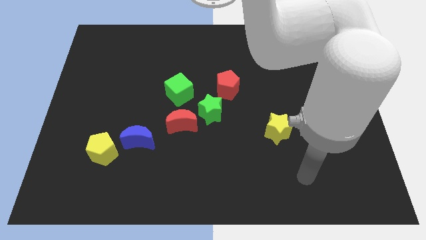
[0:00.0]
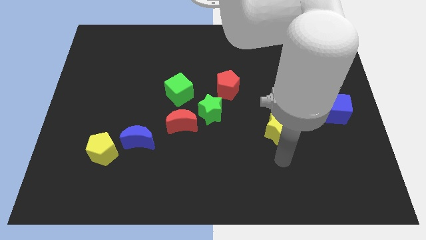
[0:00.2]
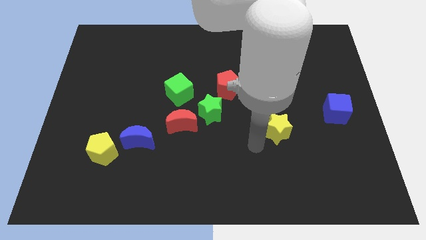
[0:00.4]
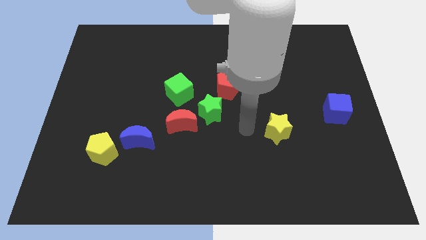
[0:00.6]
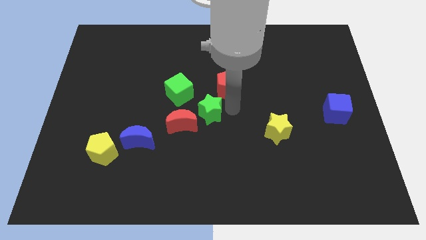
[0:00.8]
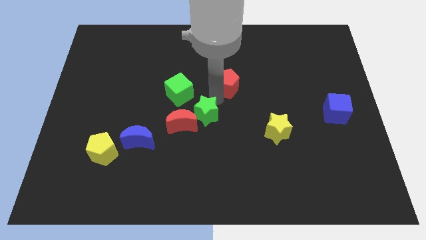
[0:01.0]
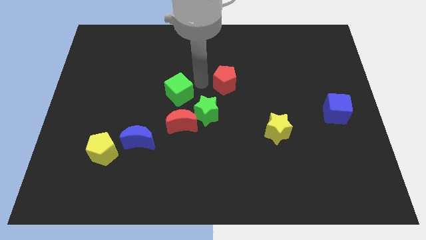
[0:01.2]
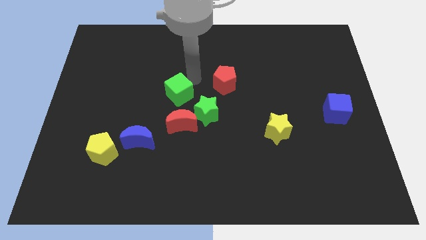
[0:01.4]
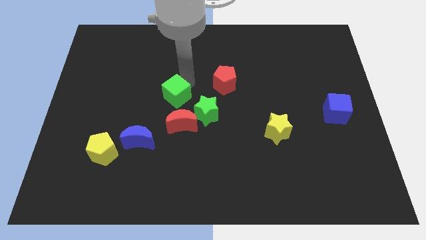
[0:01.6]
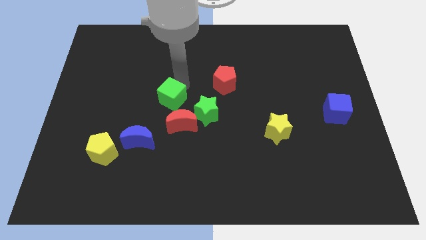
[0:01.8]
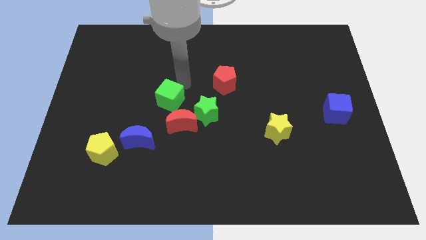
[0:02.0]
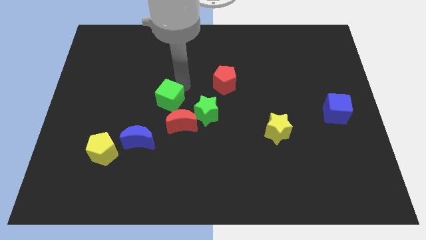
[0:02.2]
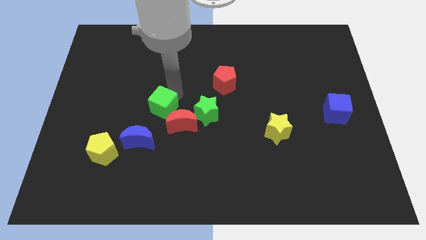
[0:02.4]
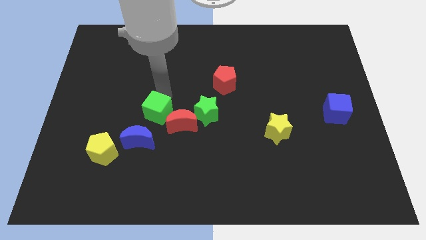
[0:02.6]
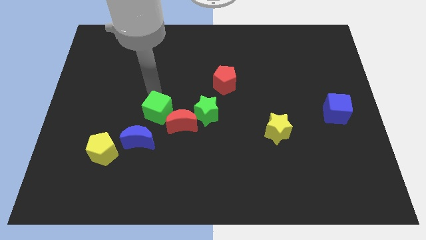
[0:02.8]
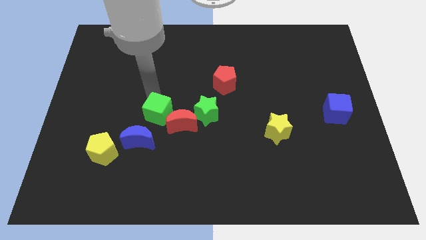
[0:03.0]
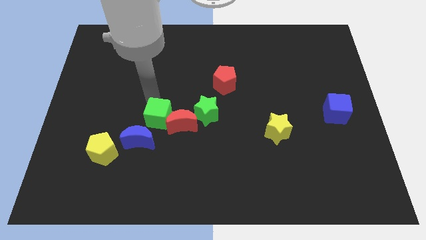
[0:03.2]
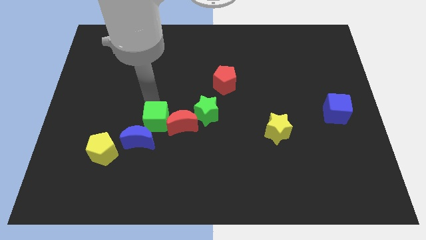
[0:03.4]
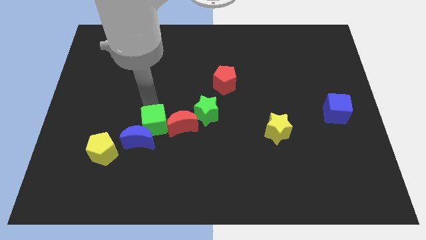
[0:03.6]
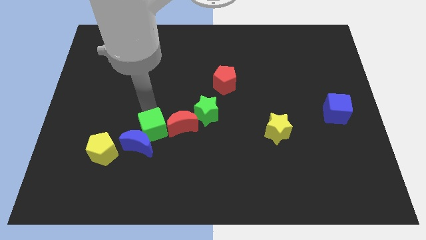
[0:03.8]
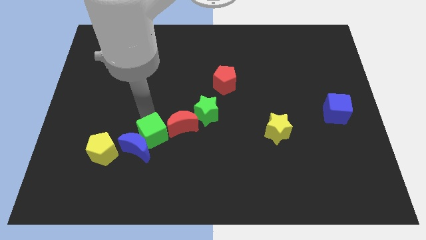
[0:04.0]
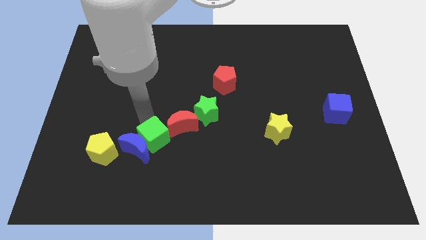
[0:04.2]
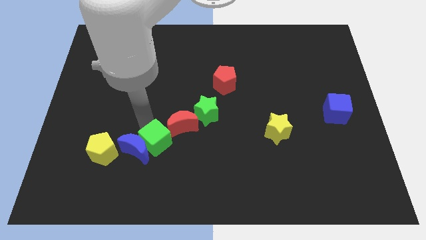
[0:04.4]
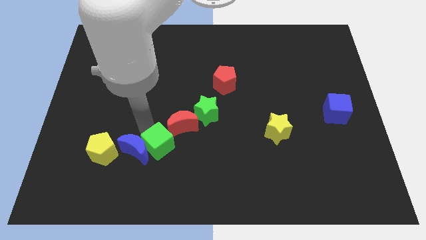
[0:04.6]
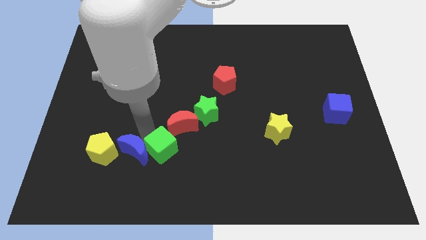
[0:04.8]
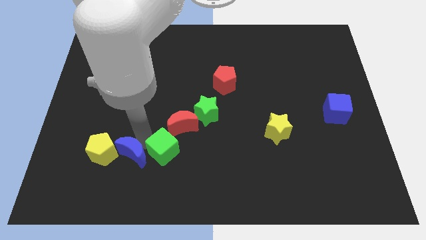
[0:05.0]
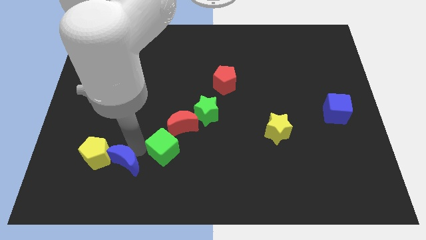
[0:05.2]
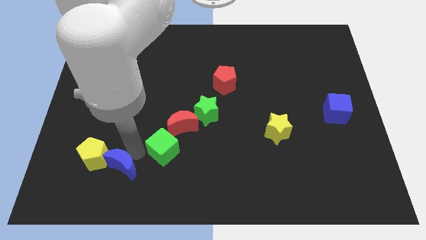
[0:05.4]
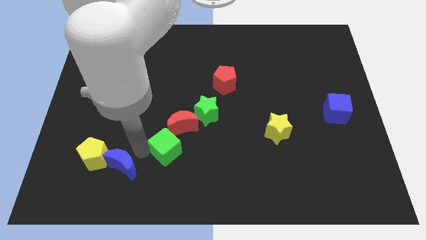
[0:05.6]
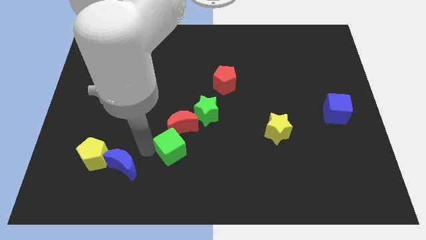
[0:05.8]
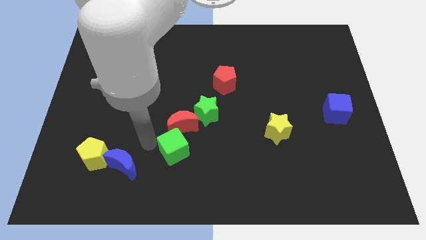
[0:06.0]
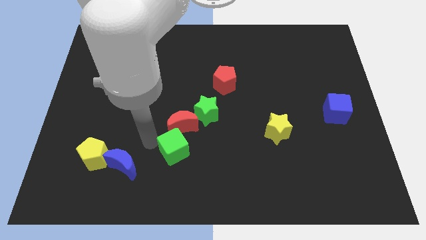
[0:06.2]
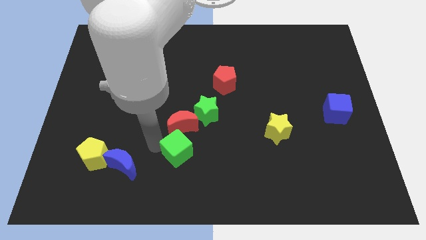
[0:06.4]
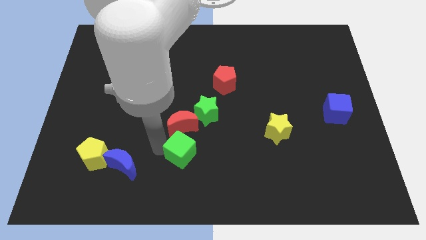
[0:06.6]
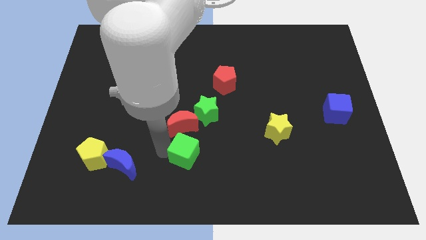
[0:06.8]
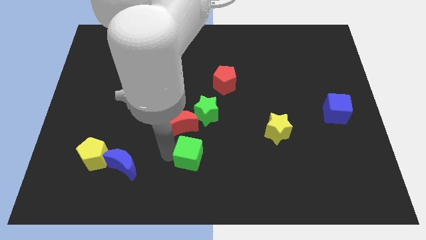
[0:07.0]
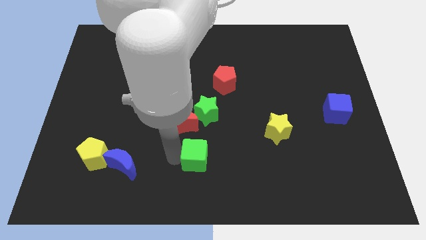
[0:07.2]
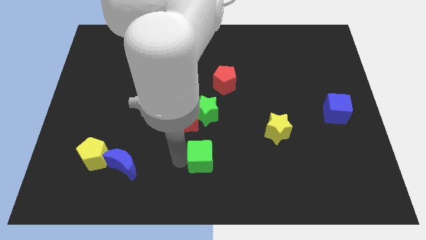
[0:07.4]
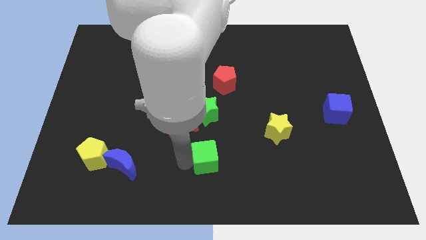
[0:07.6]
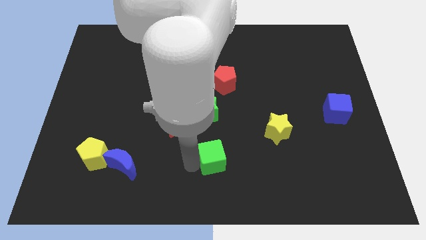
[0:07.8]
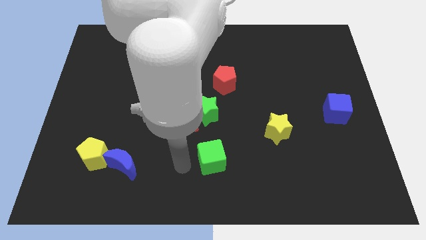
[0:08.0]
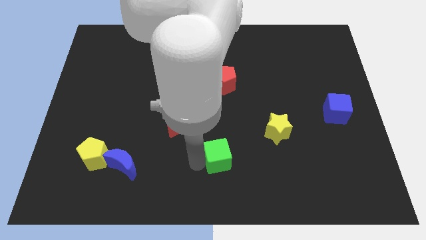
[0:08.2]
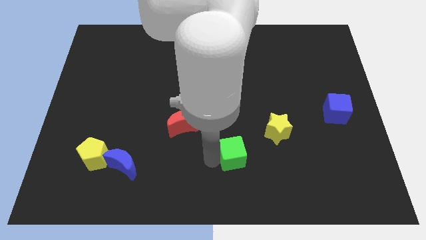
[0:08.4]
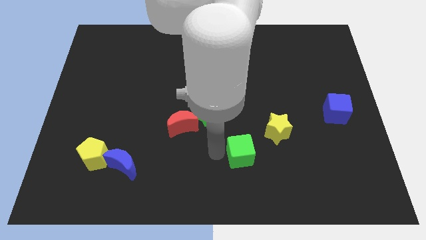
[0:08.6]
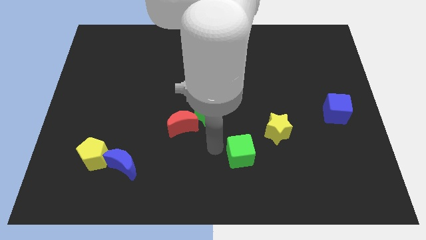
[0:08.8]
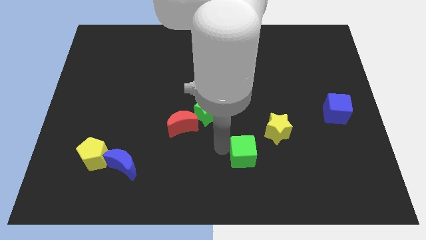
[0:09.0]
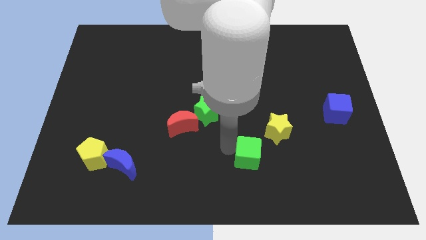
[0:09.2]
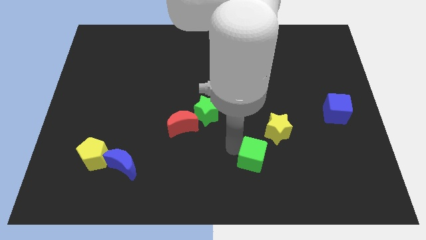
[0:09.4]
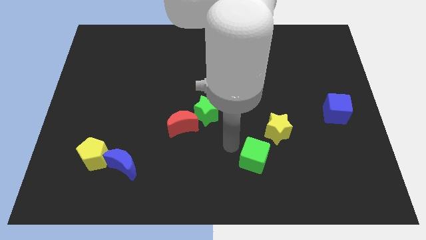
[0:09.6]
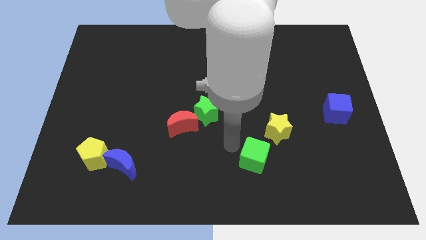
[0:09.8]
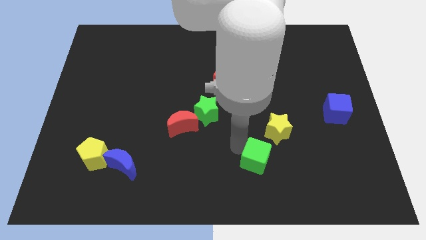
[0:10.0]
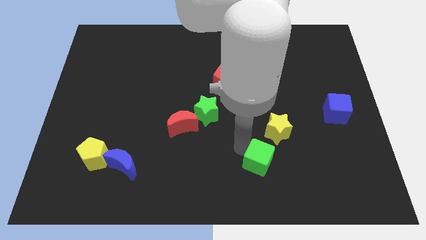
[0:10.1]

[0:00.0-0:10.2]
slide the green cube to the bottom side of the yellow star

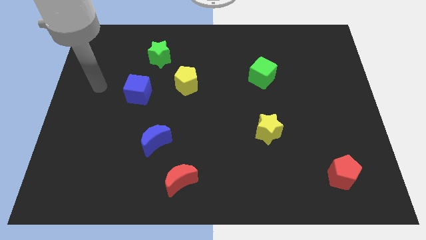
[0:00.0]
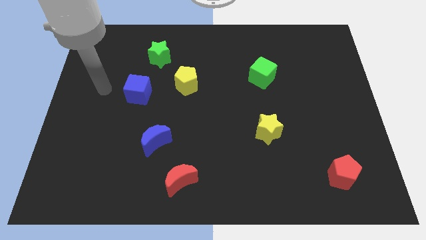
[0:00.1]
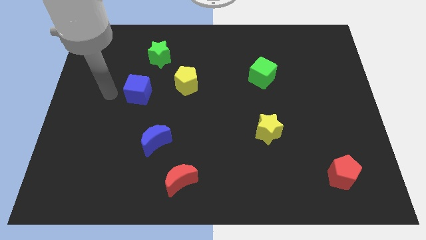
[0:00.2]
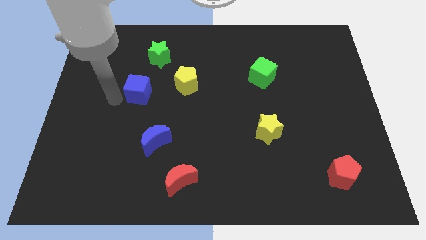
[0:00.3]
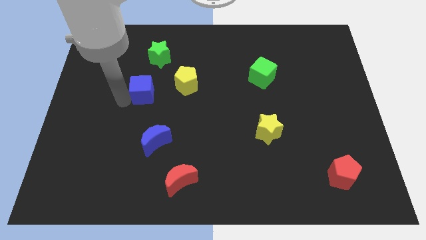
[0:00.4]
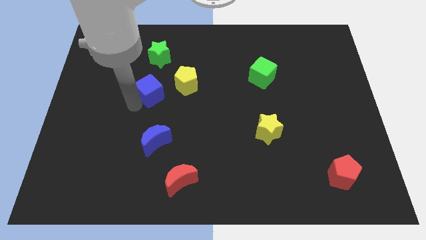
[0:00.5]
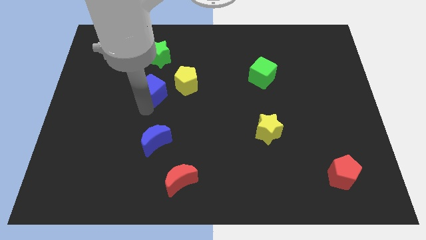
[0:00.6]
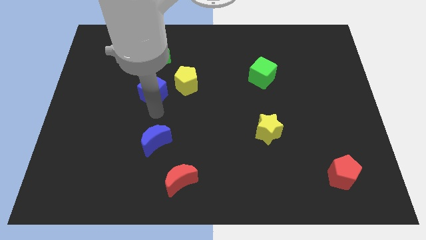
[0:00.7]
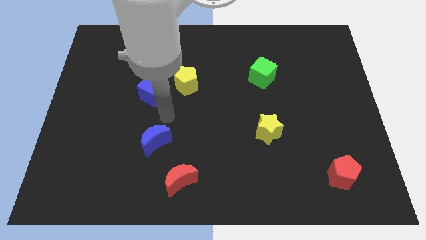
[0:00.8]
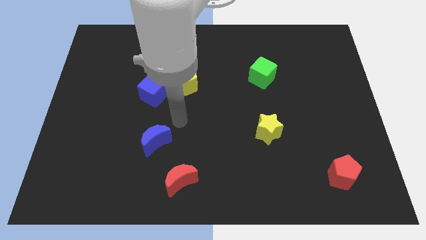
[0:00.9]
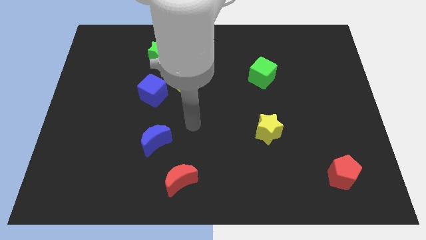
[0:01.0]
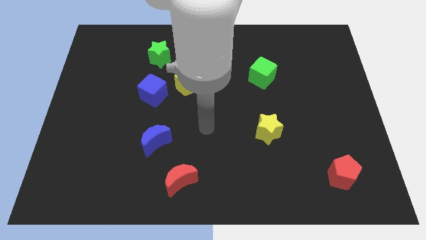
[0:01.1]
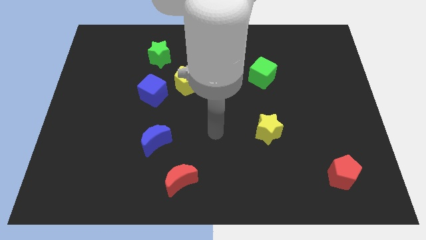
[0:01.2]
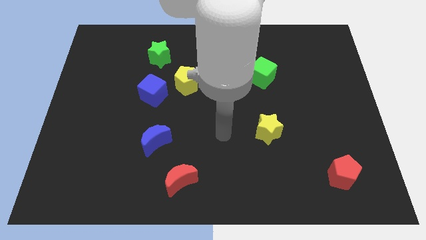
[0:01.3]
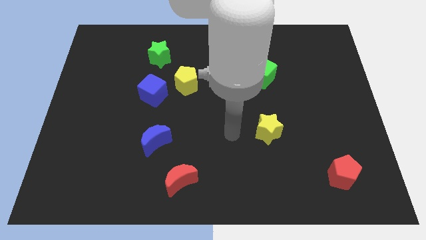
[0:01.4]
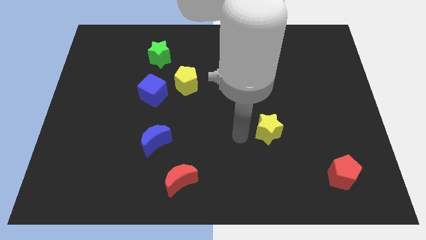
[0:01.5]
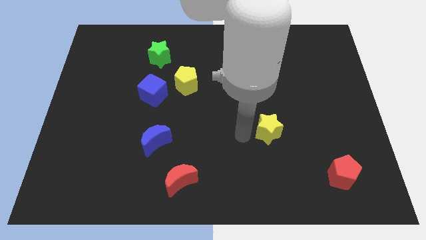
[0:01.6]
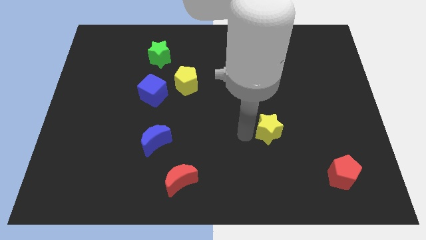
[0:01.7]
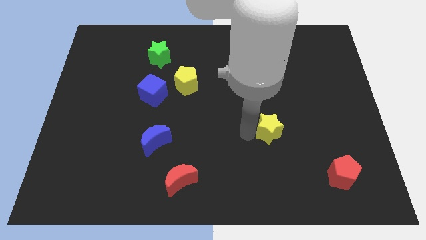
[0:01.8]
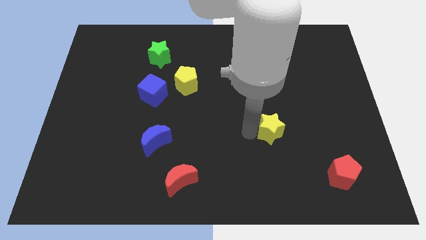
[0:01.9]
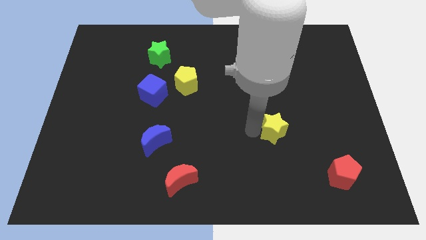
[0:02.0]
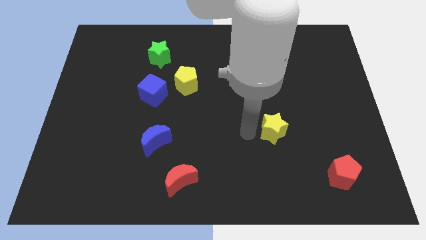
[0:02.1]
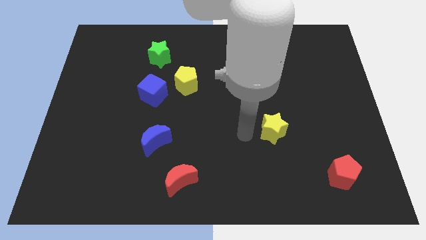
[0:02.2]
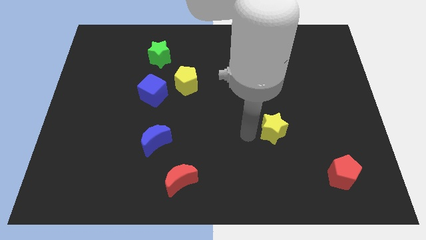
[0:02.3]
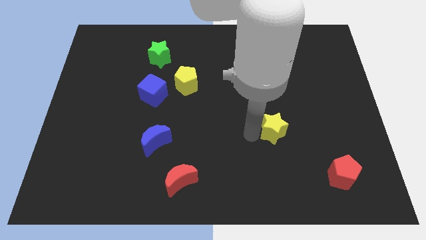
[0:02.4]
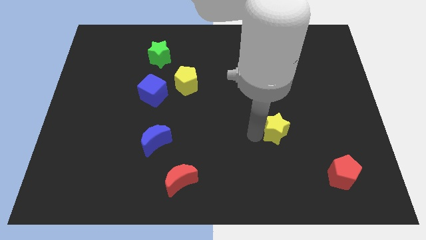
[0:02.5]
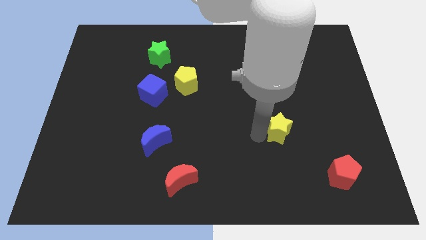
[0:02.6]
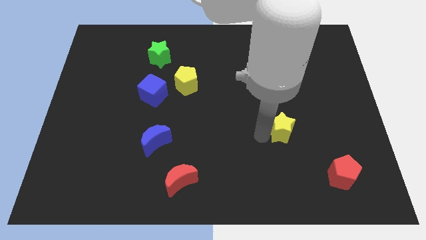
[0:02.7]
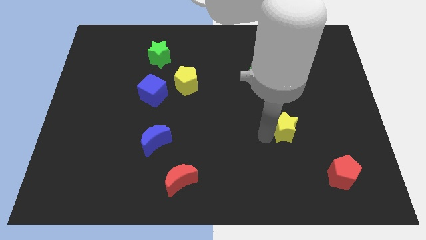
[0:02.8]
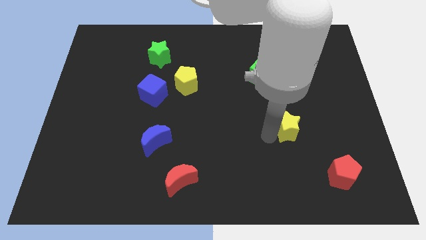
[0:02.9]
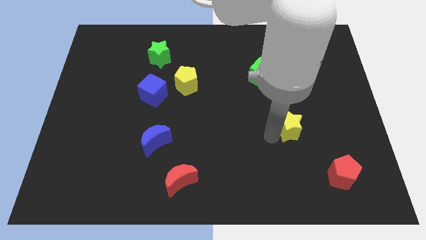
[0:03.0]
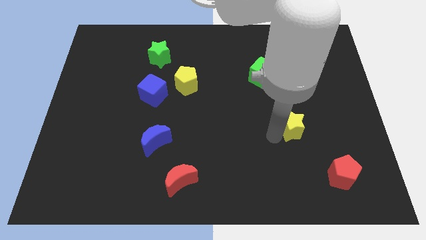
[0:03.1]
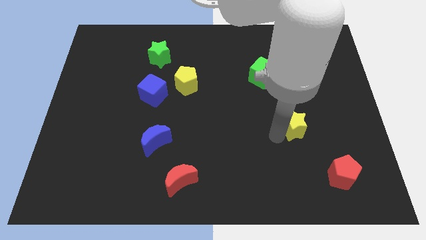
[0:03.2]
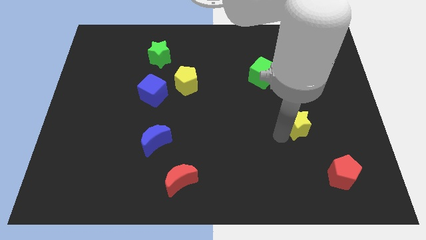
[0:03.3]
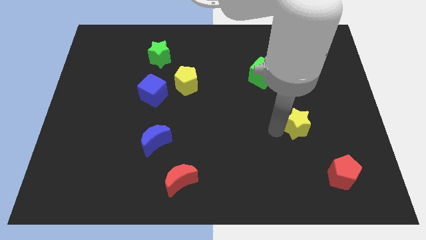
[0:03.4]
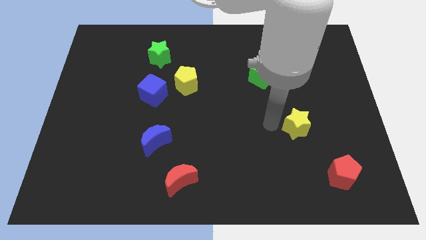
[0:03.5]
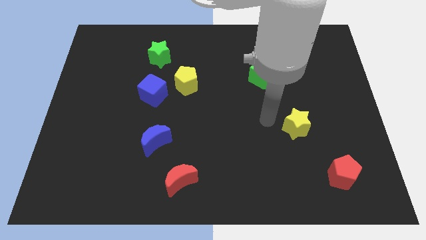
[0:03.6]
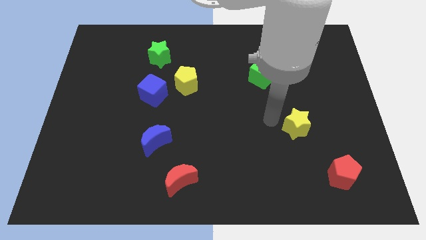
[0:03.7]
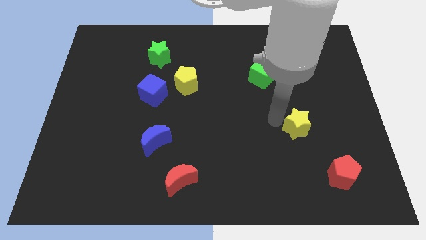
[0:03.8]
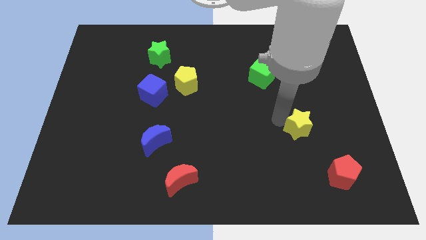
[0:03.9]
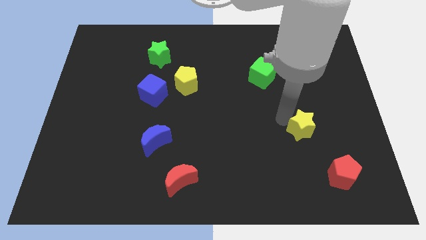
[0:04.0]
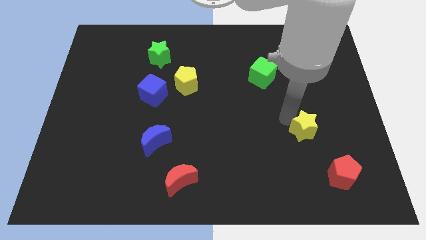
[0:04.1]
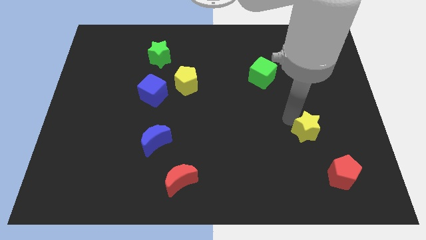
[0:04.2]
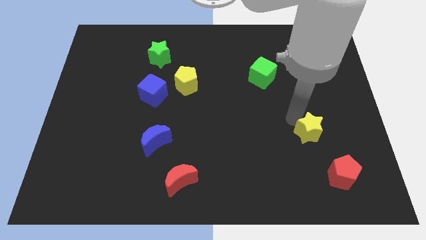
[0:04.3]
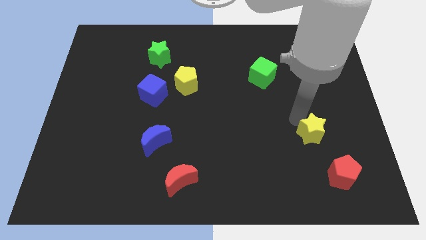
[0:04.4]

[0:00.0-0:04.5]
put the yellow star to the top of the red pentagon
